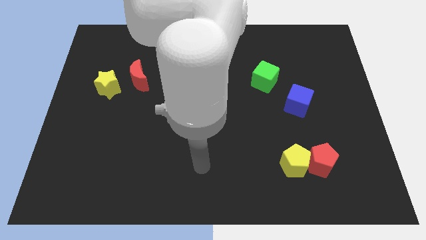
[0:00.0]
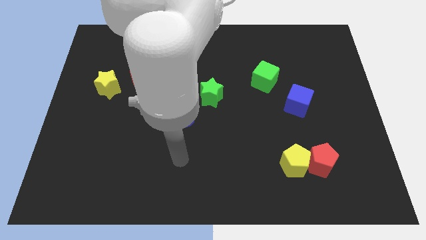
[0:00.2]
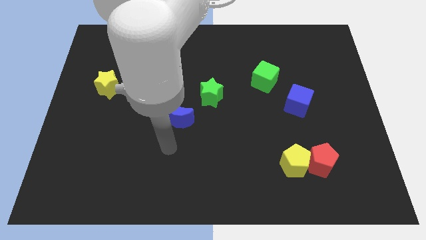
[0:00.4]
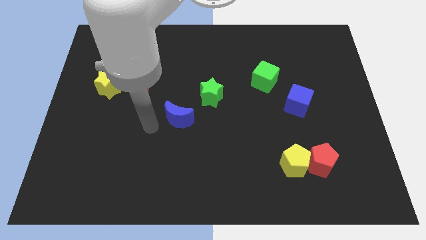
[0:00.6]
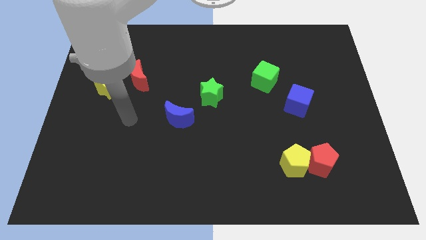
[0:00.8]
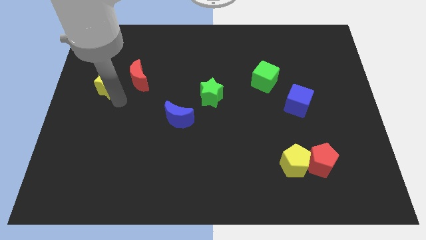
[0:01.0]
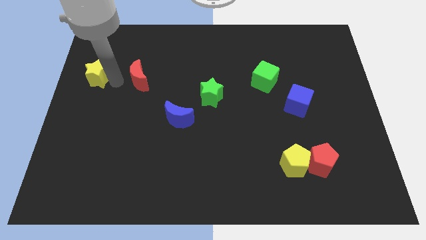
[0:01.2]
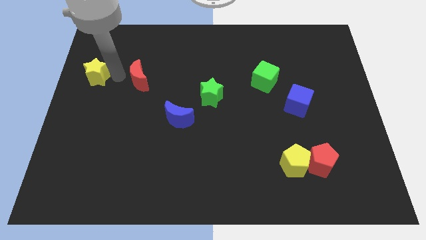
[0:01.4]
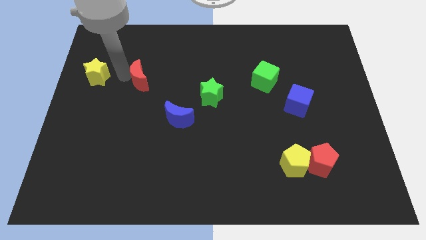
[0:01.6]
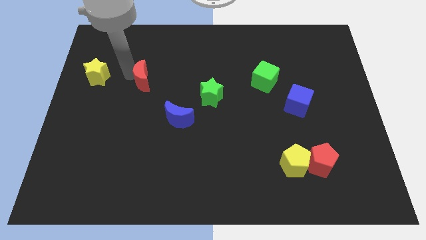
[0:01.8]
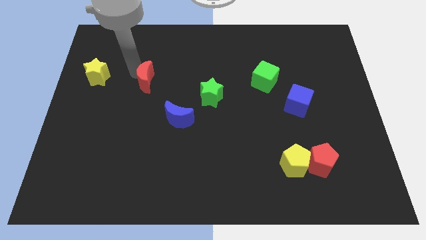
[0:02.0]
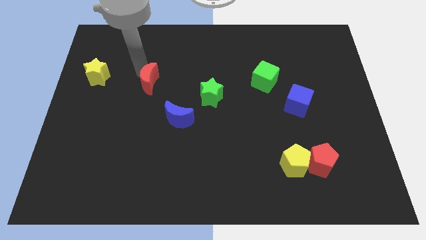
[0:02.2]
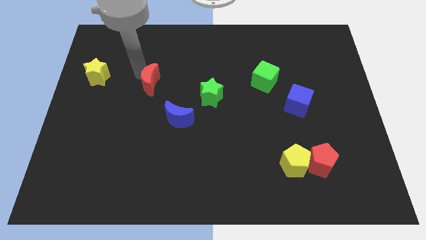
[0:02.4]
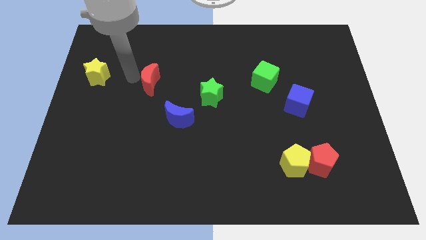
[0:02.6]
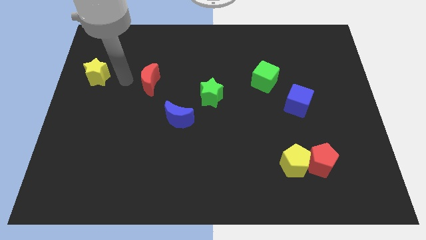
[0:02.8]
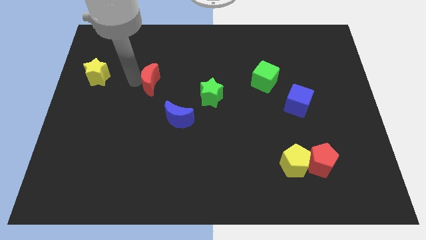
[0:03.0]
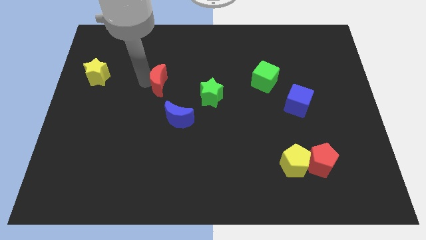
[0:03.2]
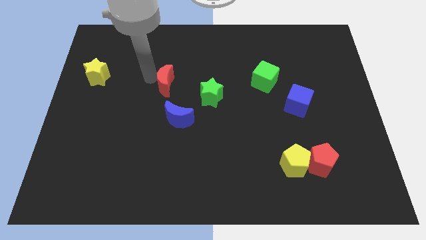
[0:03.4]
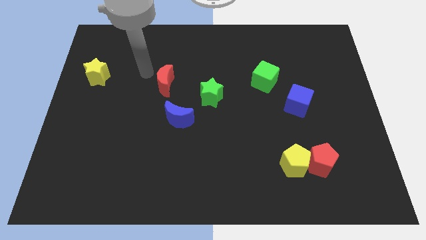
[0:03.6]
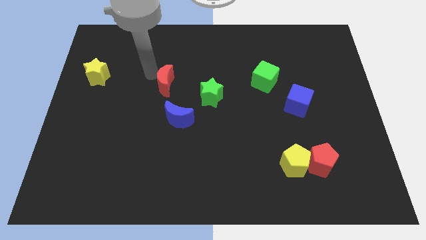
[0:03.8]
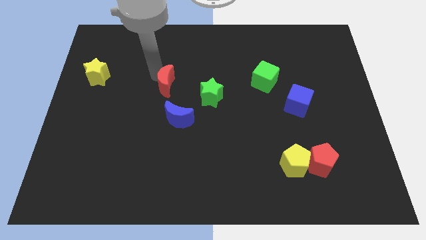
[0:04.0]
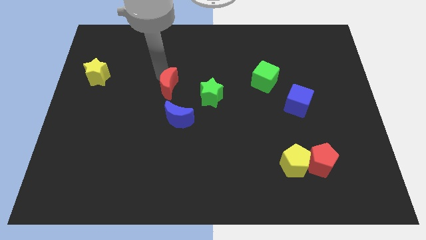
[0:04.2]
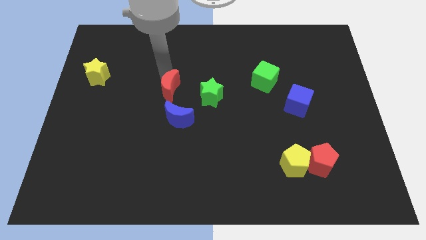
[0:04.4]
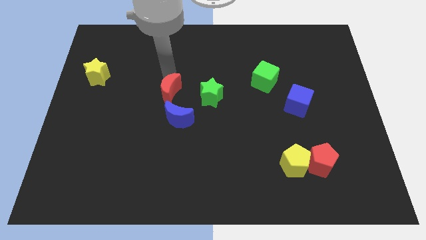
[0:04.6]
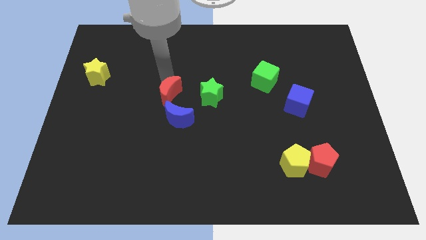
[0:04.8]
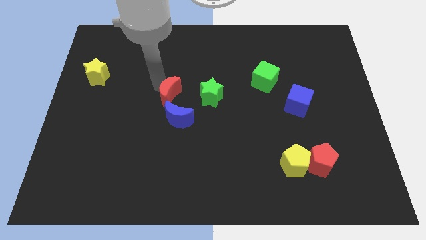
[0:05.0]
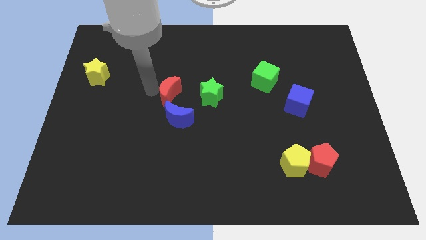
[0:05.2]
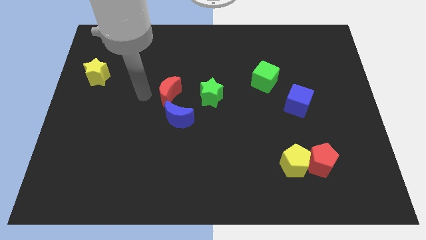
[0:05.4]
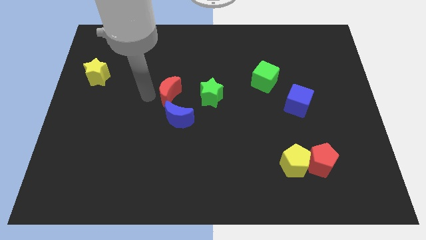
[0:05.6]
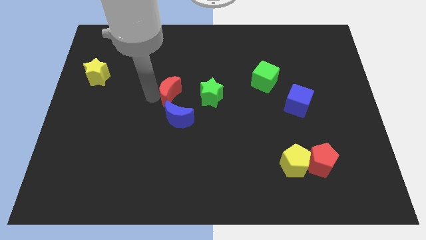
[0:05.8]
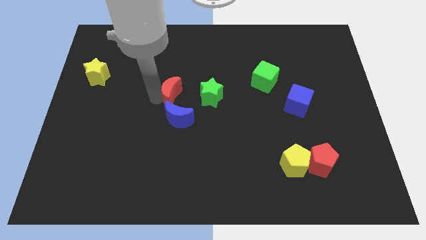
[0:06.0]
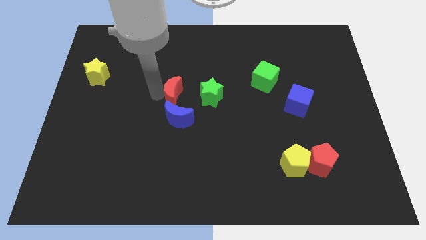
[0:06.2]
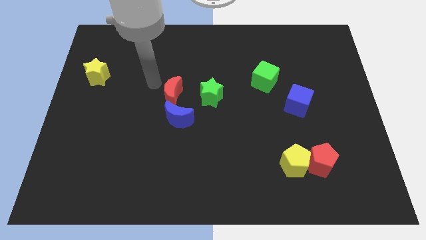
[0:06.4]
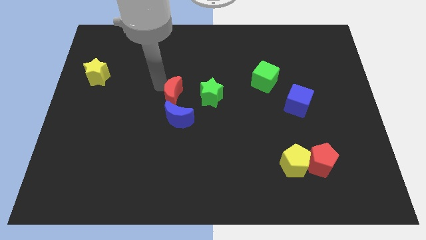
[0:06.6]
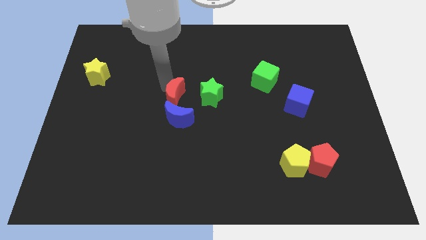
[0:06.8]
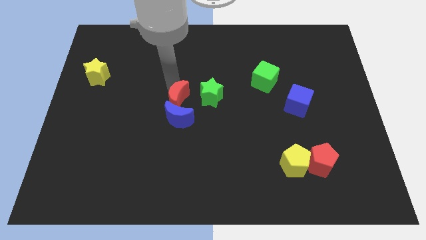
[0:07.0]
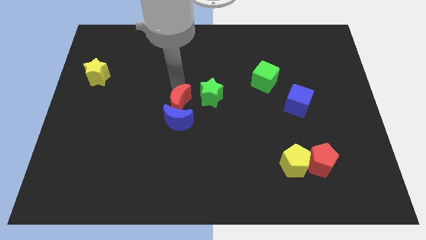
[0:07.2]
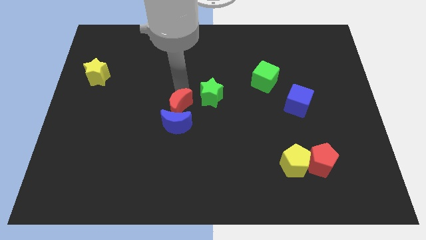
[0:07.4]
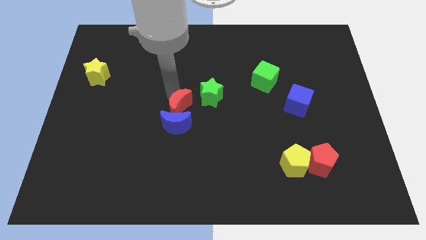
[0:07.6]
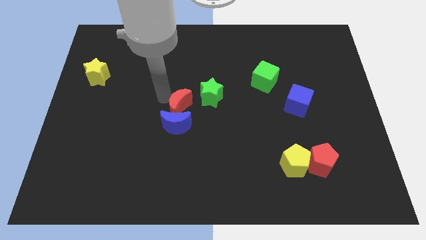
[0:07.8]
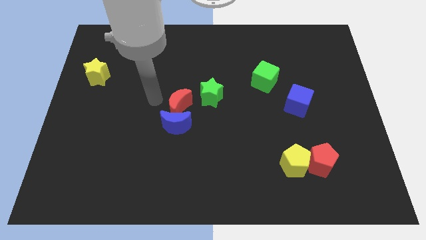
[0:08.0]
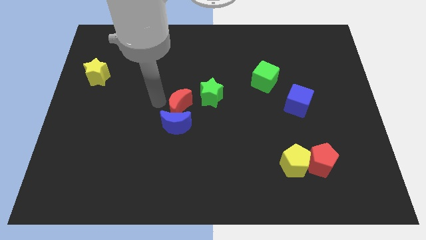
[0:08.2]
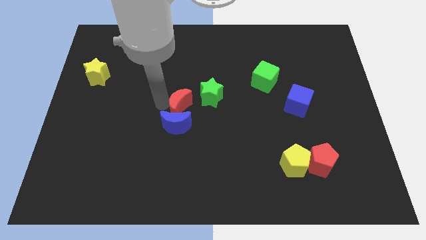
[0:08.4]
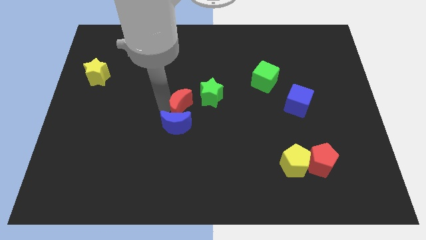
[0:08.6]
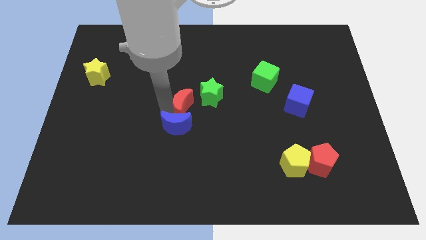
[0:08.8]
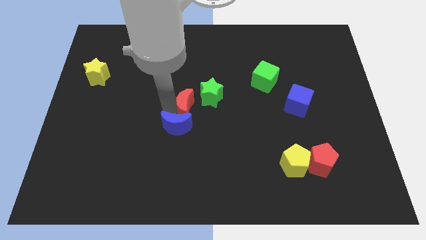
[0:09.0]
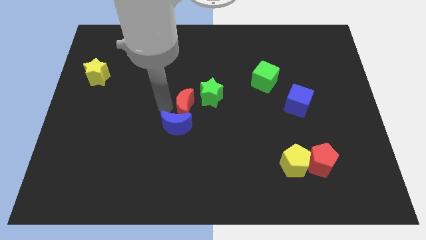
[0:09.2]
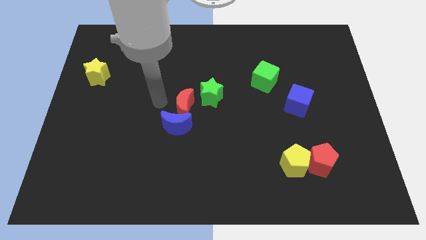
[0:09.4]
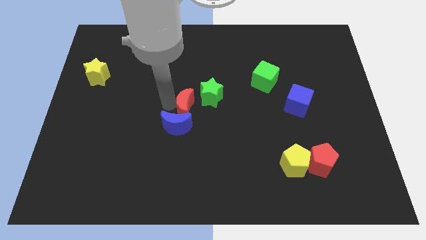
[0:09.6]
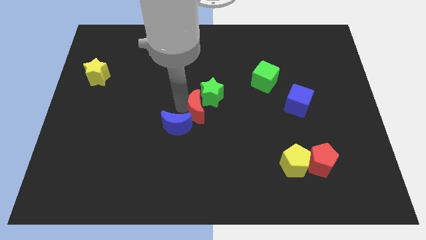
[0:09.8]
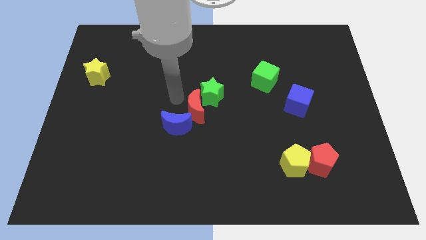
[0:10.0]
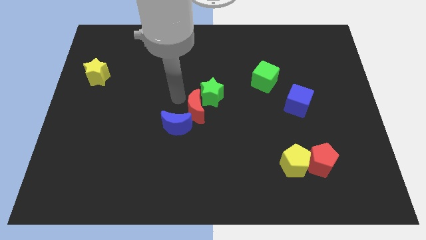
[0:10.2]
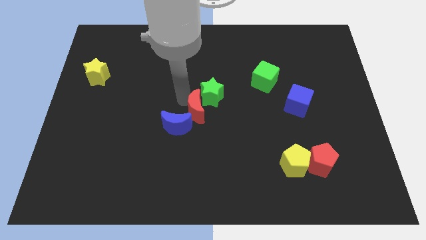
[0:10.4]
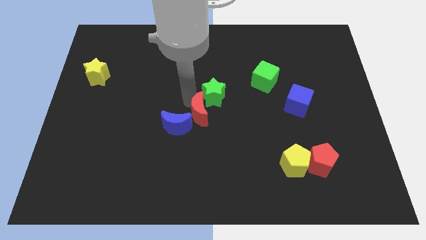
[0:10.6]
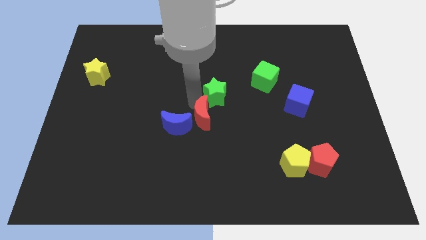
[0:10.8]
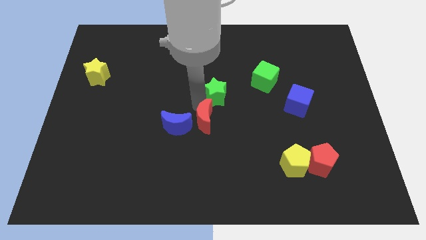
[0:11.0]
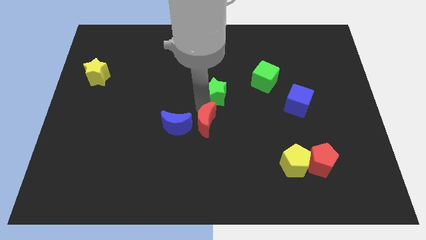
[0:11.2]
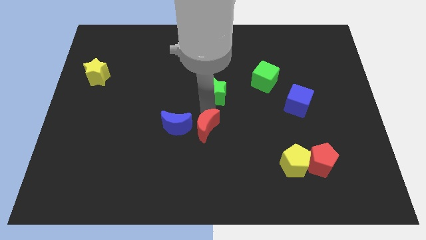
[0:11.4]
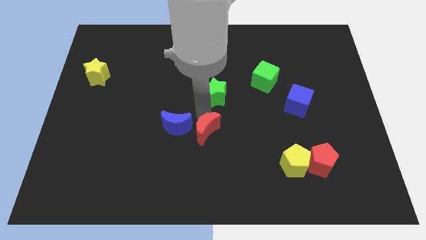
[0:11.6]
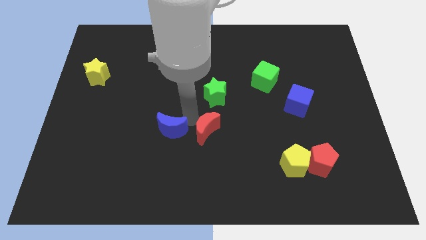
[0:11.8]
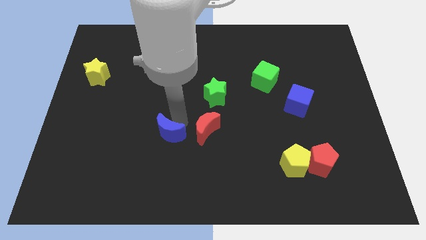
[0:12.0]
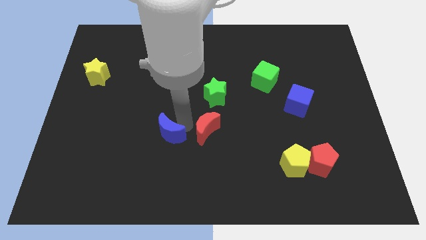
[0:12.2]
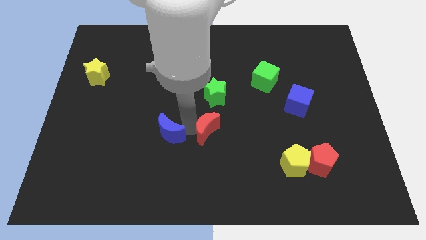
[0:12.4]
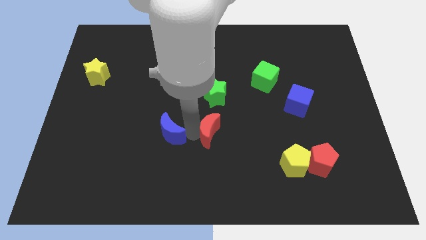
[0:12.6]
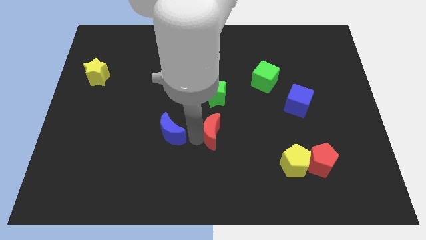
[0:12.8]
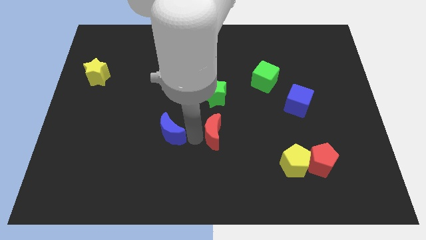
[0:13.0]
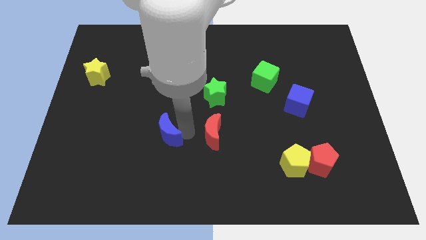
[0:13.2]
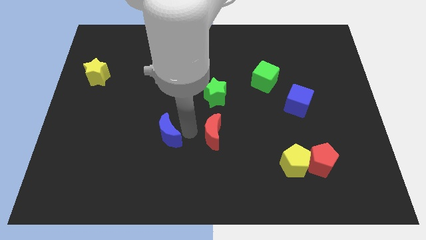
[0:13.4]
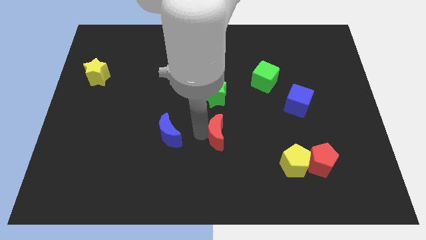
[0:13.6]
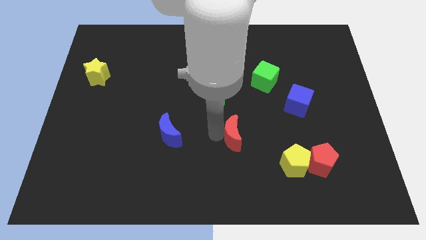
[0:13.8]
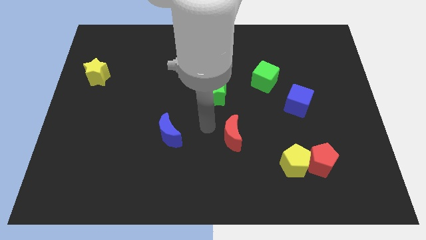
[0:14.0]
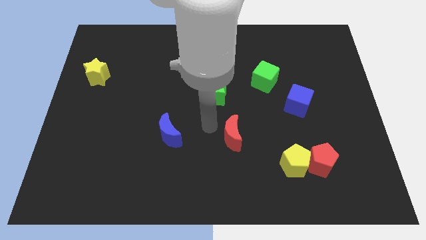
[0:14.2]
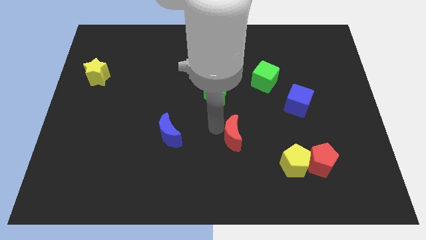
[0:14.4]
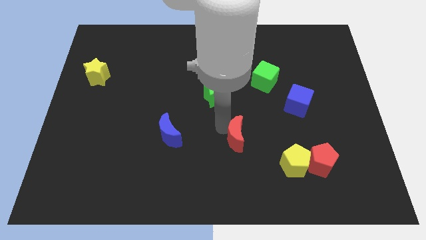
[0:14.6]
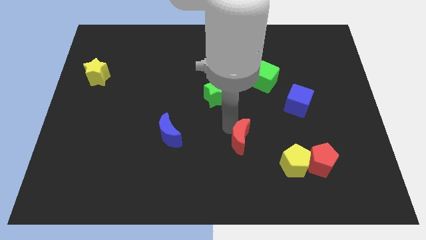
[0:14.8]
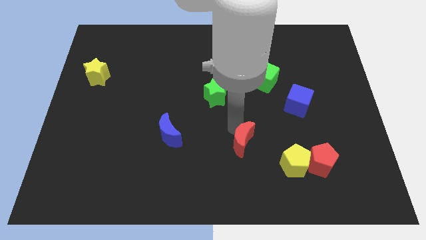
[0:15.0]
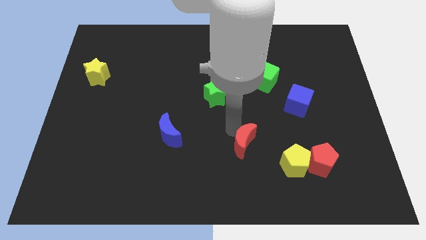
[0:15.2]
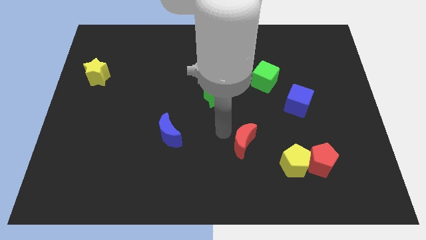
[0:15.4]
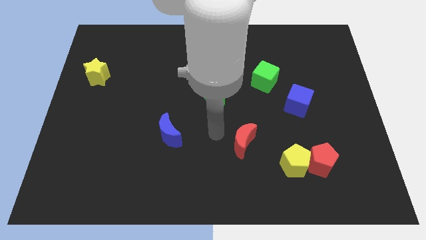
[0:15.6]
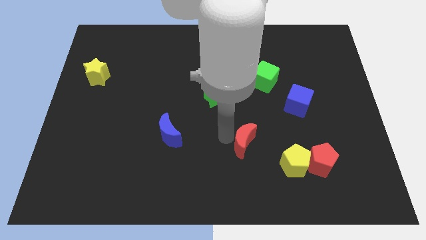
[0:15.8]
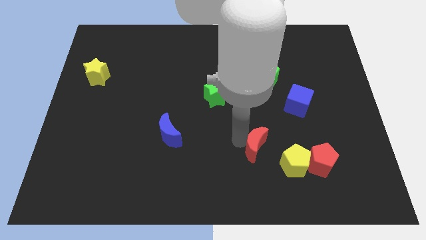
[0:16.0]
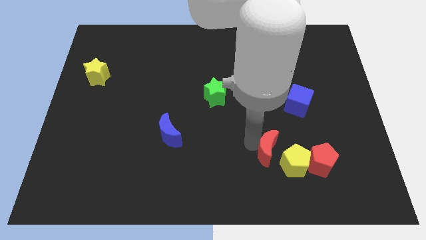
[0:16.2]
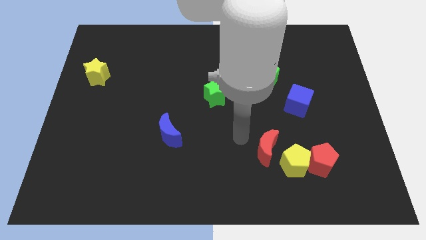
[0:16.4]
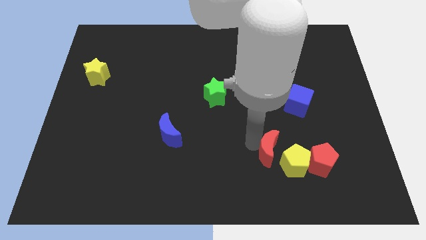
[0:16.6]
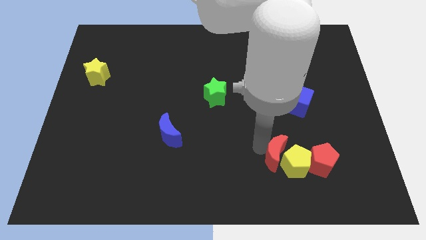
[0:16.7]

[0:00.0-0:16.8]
push the red moon next to the yellow pentagon
